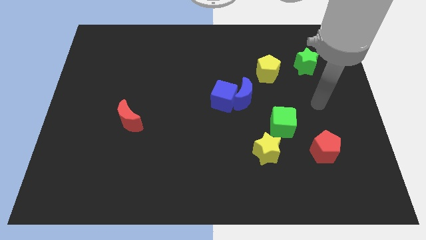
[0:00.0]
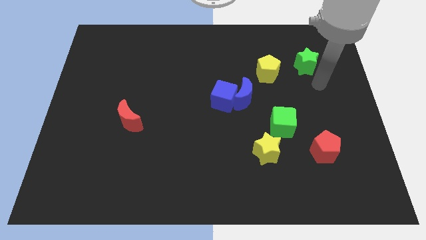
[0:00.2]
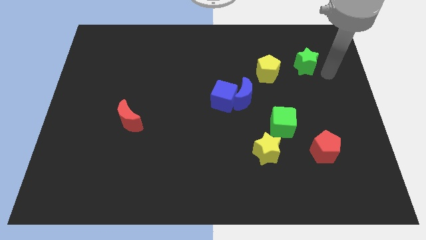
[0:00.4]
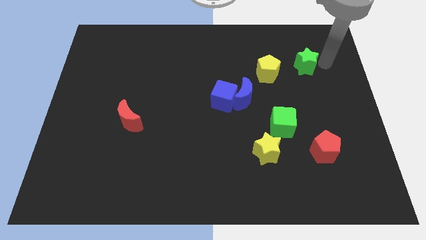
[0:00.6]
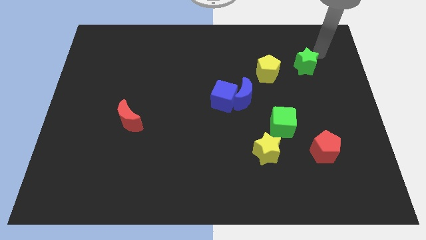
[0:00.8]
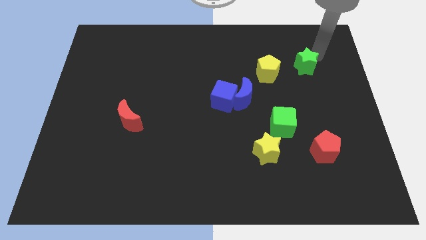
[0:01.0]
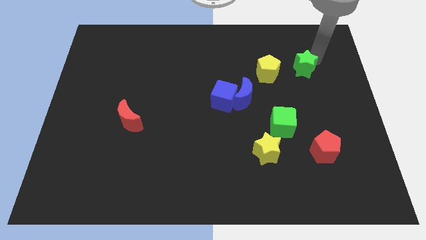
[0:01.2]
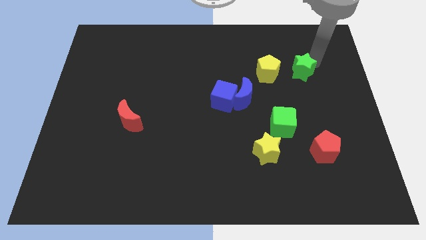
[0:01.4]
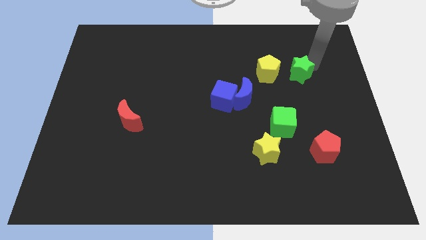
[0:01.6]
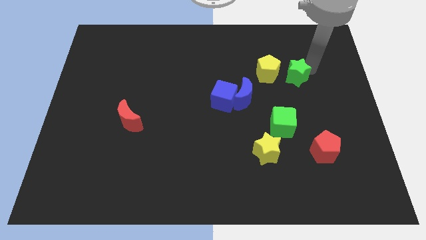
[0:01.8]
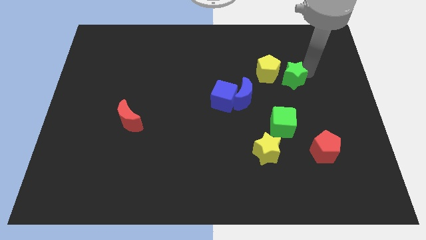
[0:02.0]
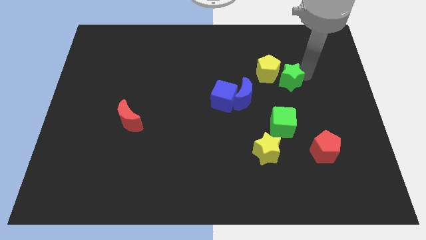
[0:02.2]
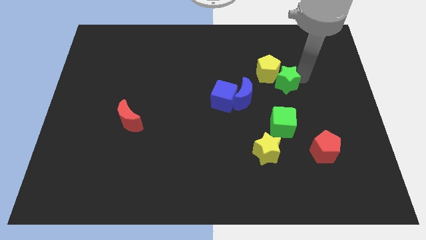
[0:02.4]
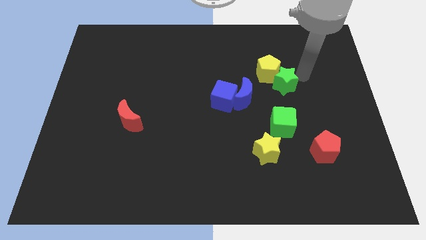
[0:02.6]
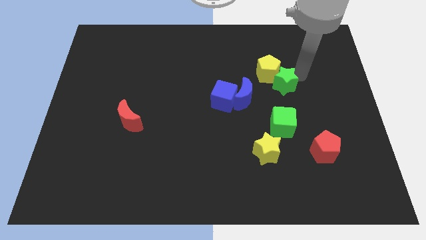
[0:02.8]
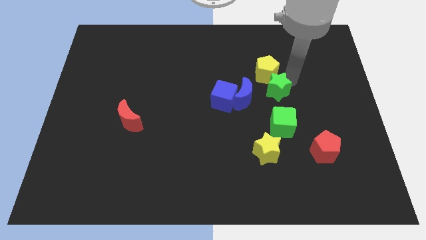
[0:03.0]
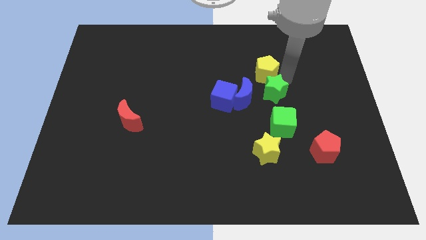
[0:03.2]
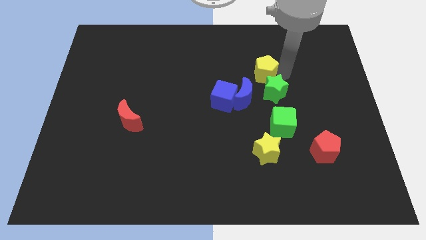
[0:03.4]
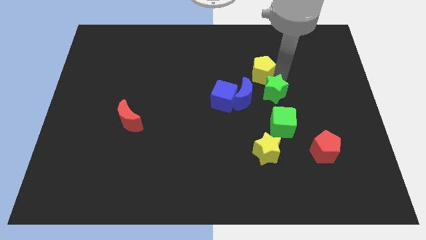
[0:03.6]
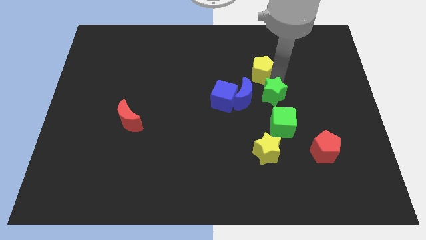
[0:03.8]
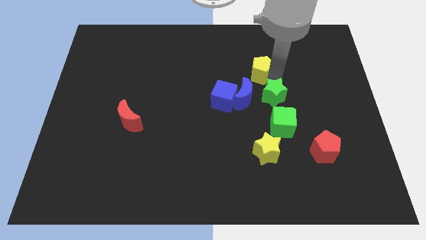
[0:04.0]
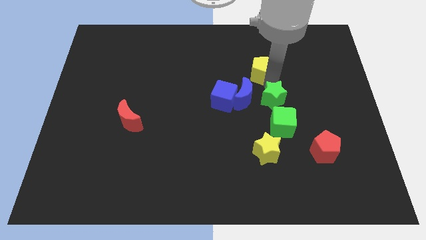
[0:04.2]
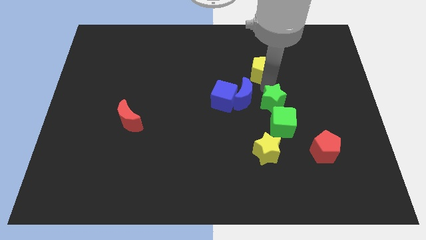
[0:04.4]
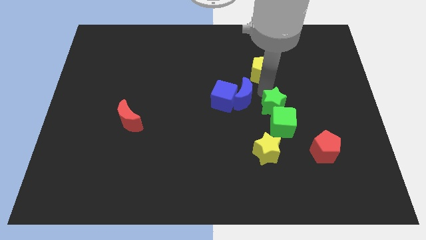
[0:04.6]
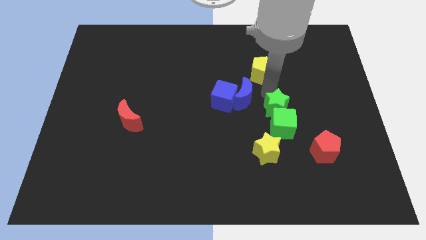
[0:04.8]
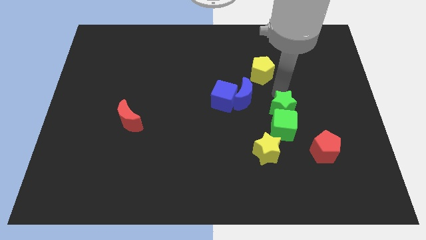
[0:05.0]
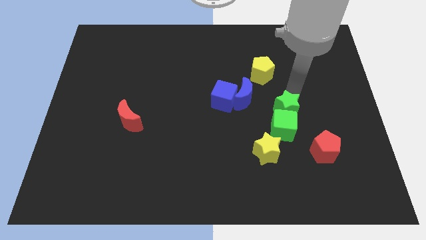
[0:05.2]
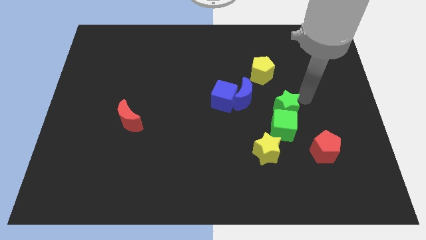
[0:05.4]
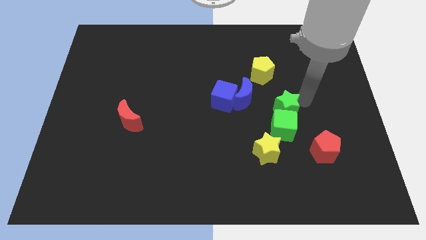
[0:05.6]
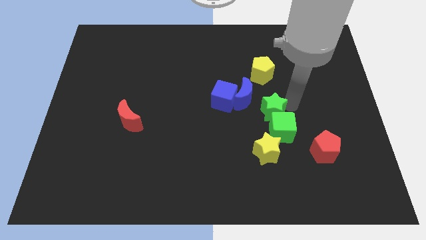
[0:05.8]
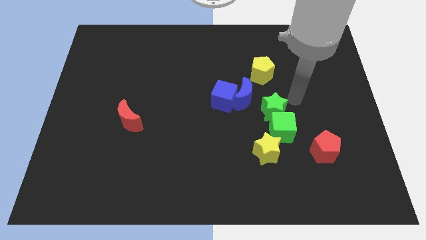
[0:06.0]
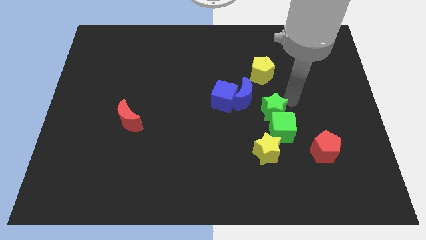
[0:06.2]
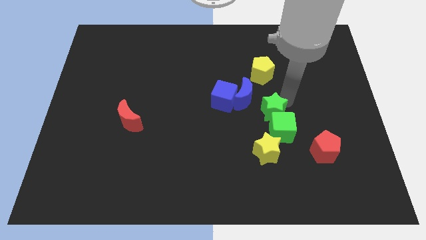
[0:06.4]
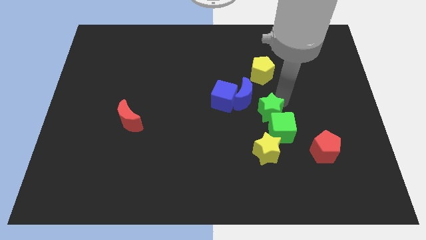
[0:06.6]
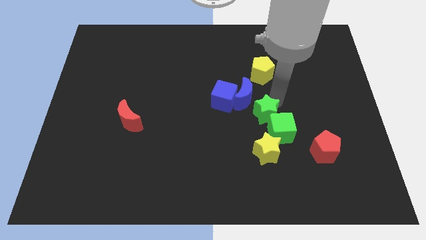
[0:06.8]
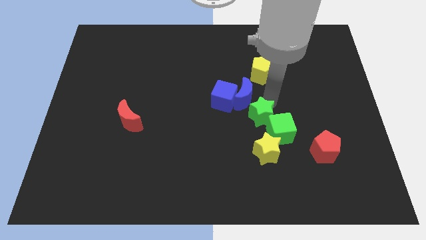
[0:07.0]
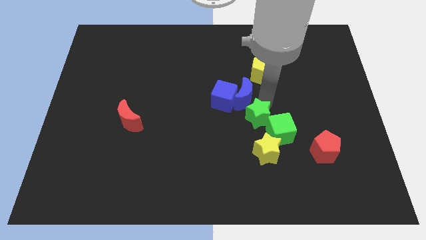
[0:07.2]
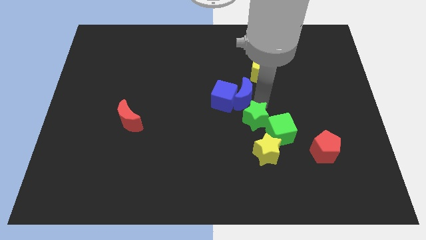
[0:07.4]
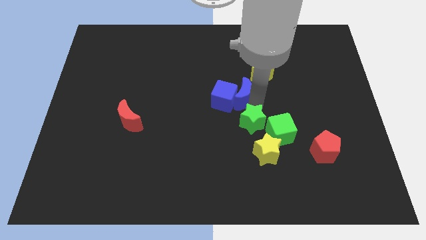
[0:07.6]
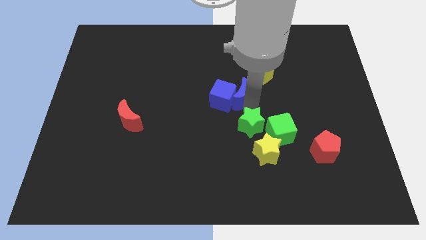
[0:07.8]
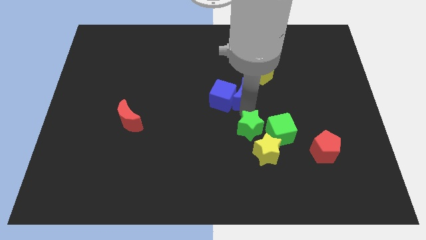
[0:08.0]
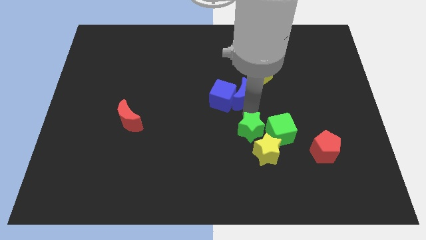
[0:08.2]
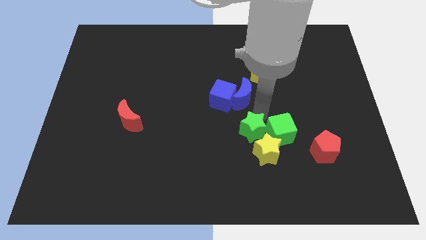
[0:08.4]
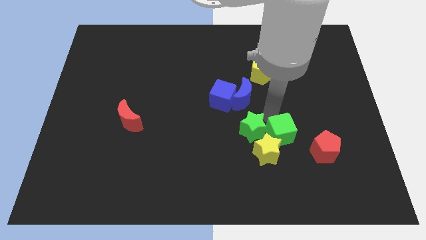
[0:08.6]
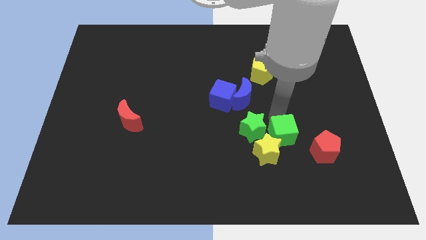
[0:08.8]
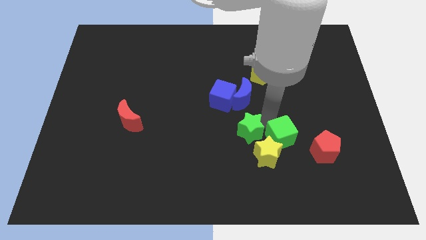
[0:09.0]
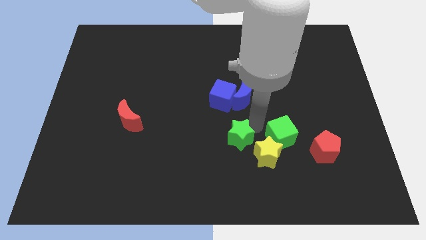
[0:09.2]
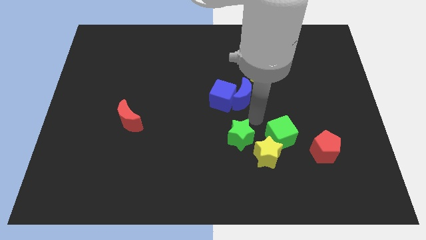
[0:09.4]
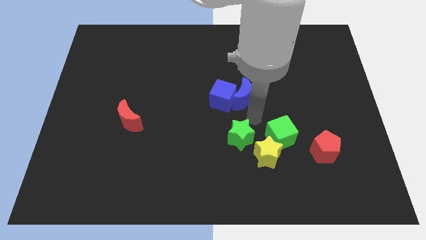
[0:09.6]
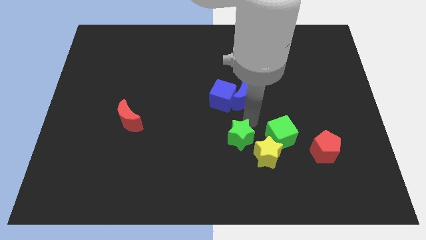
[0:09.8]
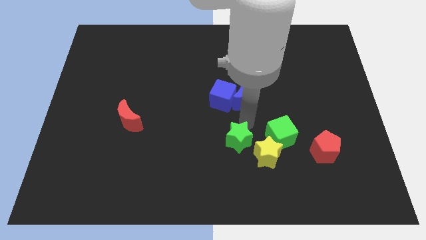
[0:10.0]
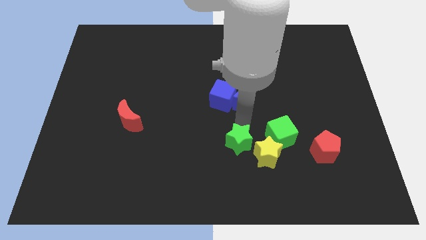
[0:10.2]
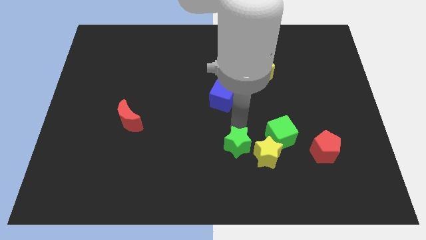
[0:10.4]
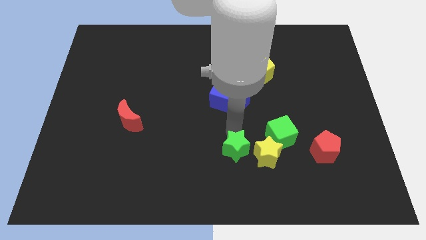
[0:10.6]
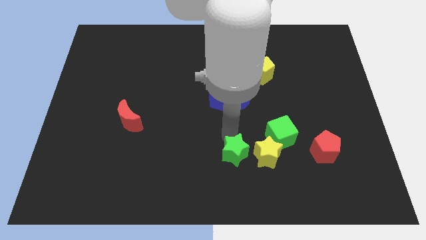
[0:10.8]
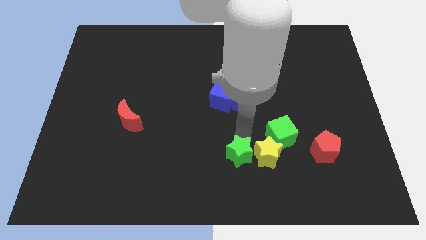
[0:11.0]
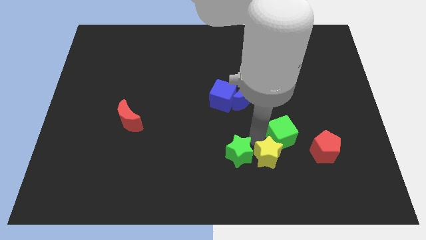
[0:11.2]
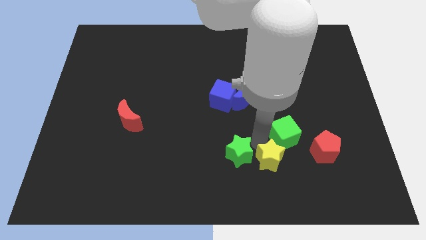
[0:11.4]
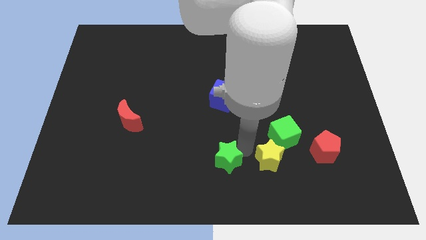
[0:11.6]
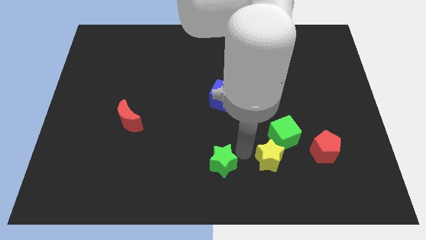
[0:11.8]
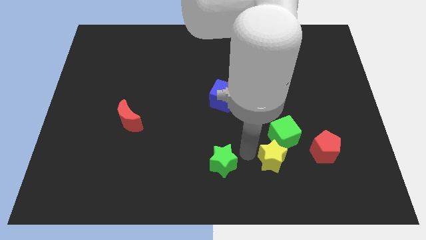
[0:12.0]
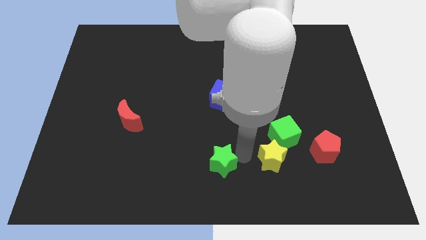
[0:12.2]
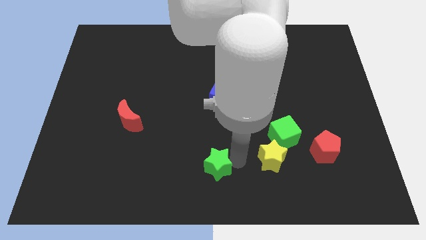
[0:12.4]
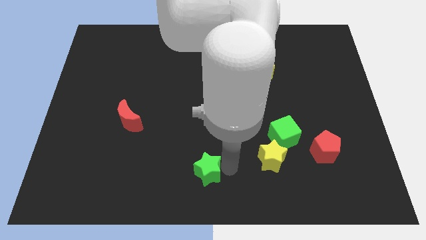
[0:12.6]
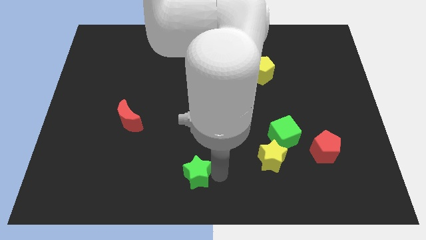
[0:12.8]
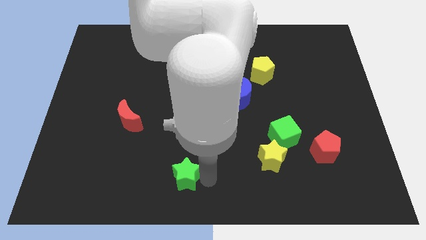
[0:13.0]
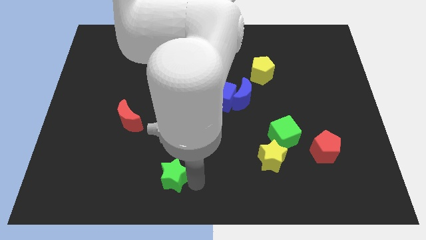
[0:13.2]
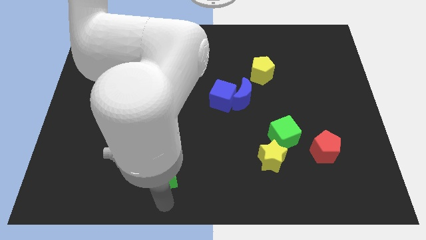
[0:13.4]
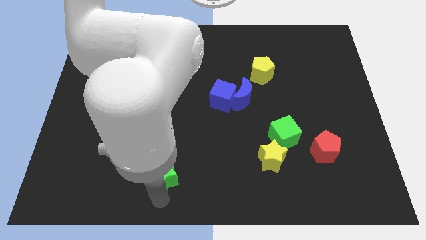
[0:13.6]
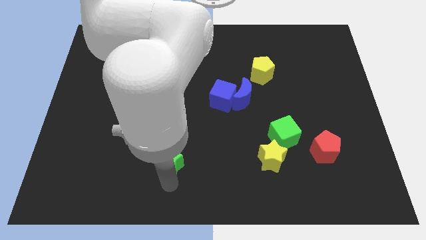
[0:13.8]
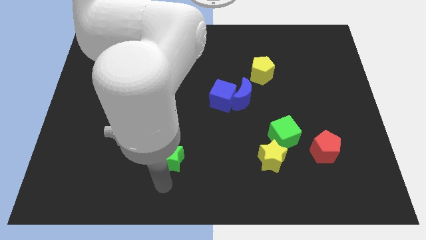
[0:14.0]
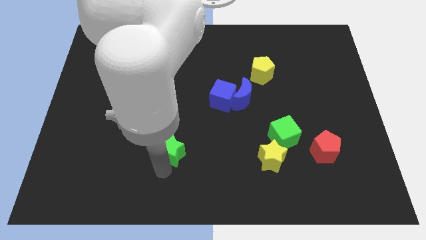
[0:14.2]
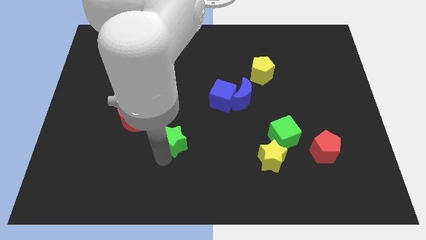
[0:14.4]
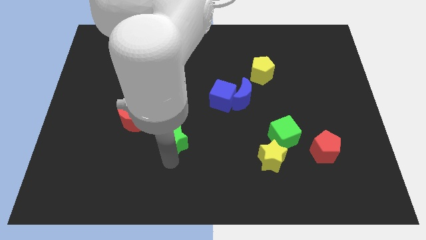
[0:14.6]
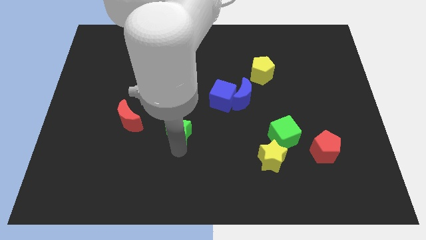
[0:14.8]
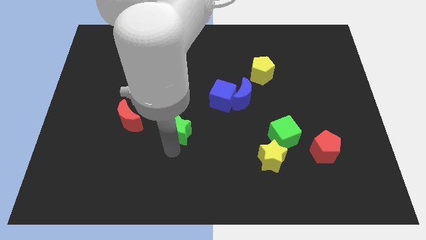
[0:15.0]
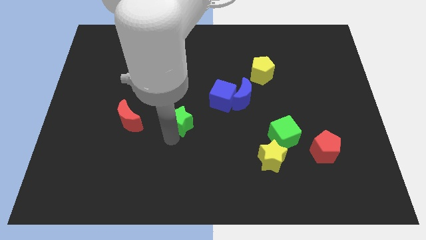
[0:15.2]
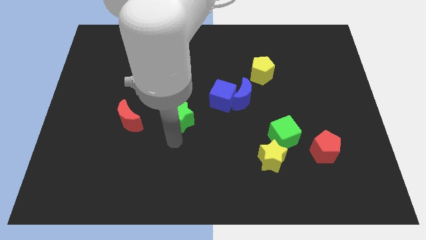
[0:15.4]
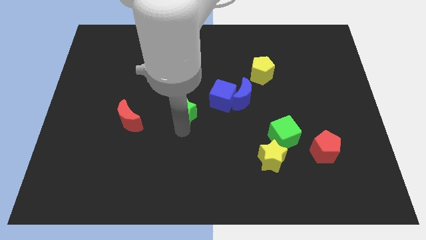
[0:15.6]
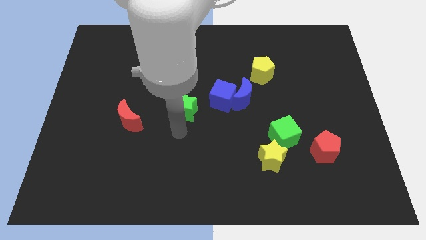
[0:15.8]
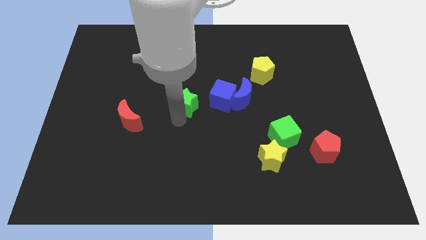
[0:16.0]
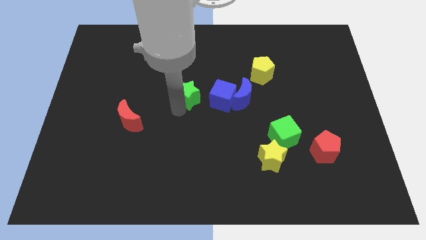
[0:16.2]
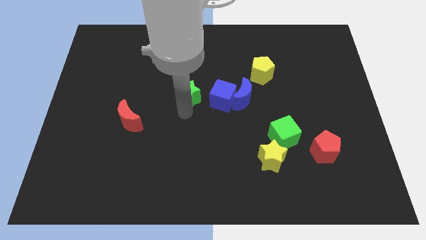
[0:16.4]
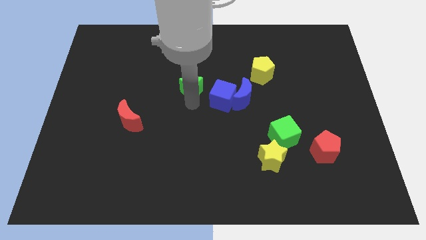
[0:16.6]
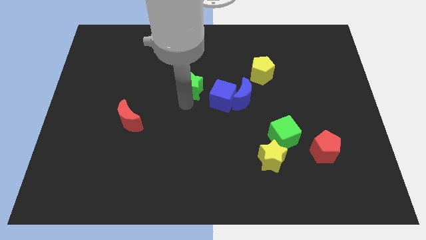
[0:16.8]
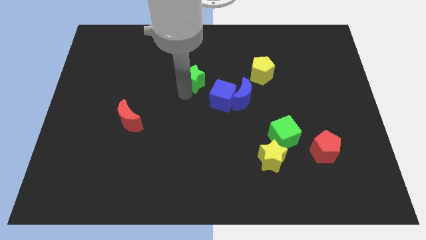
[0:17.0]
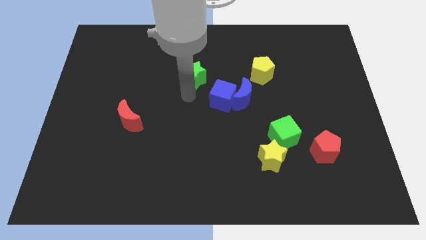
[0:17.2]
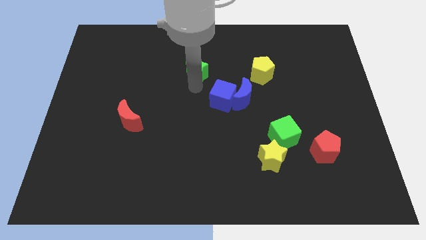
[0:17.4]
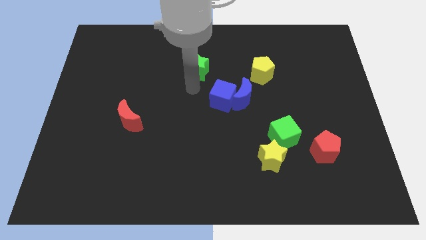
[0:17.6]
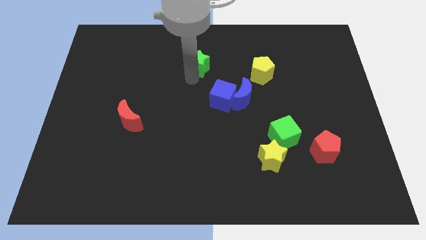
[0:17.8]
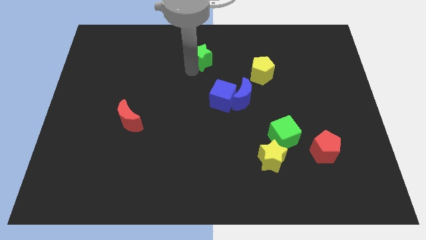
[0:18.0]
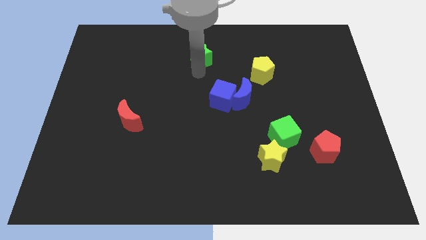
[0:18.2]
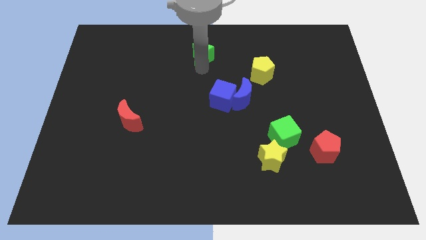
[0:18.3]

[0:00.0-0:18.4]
put the green star to the top side
